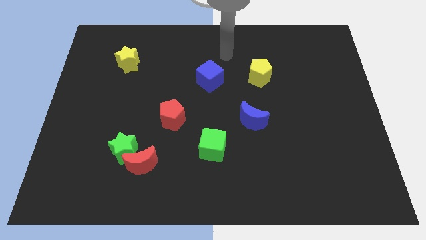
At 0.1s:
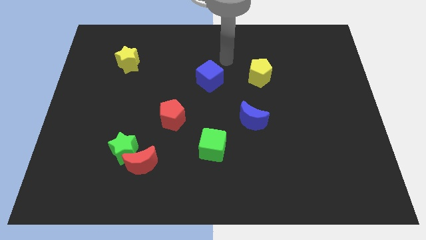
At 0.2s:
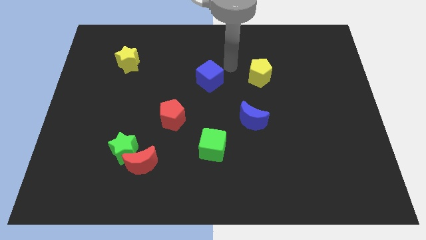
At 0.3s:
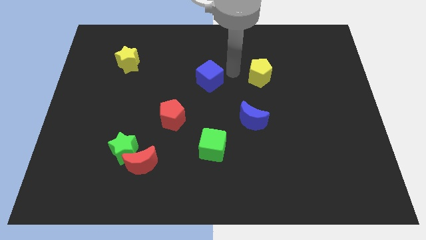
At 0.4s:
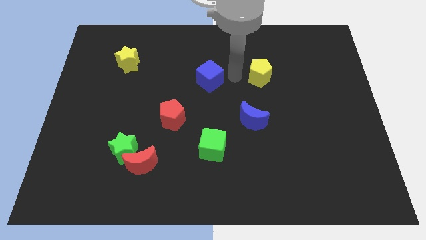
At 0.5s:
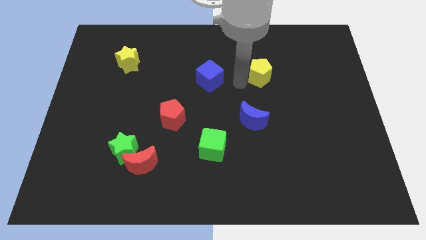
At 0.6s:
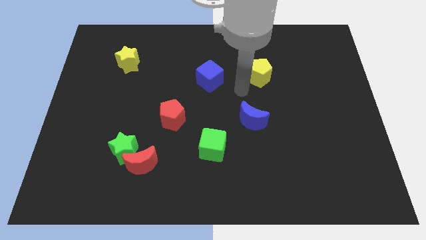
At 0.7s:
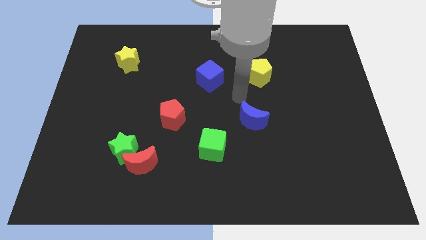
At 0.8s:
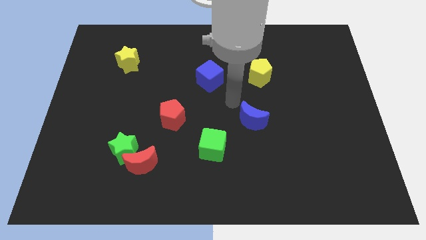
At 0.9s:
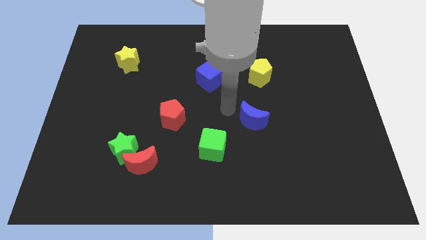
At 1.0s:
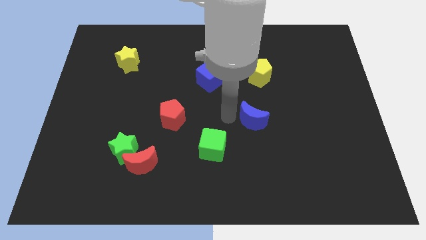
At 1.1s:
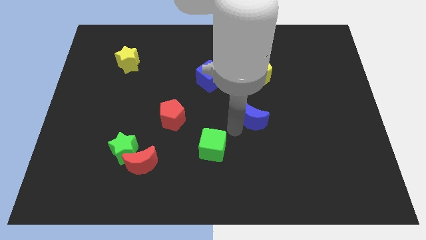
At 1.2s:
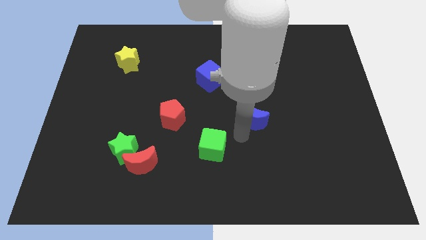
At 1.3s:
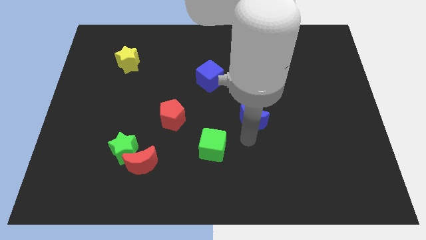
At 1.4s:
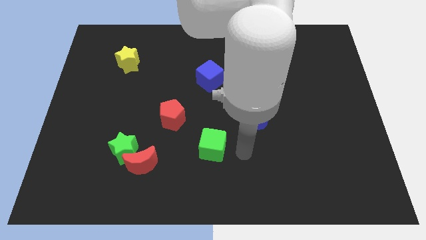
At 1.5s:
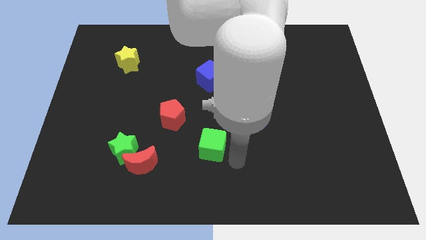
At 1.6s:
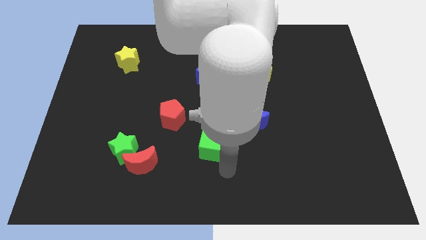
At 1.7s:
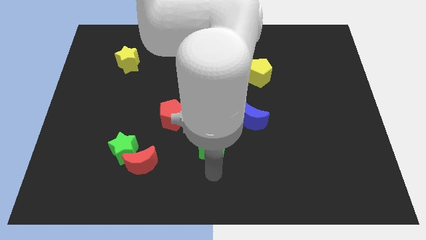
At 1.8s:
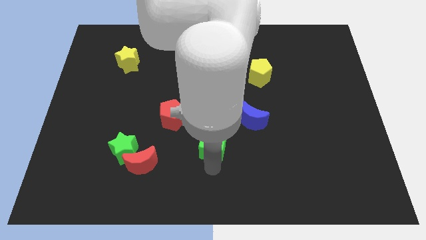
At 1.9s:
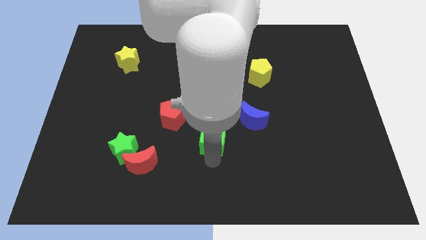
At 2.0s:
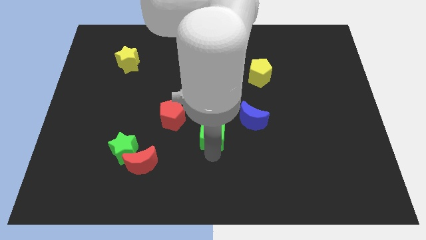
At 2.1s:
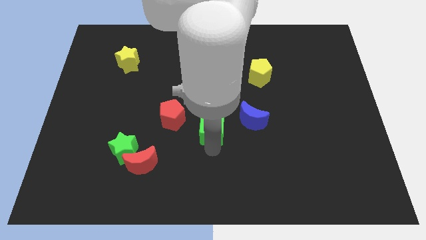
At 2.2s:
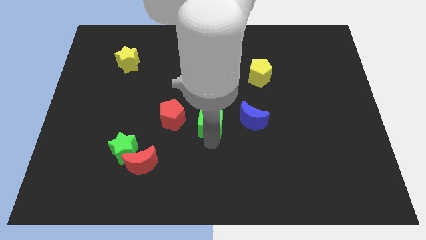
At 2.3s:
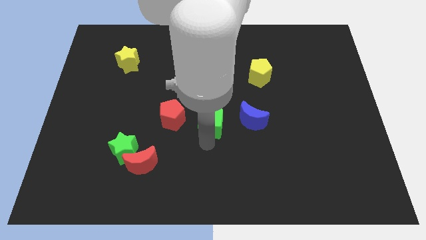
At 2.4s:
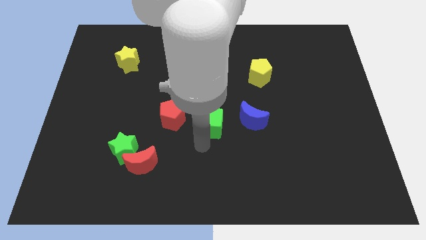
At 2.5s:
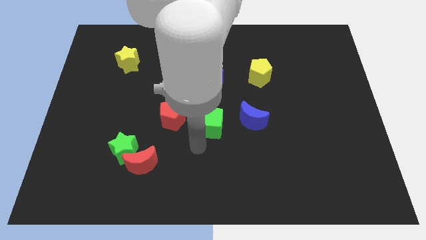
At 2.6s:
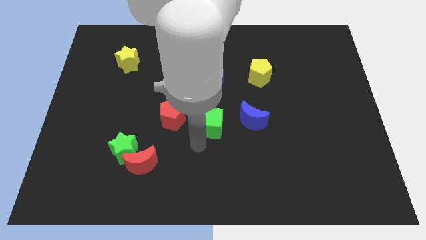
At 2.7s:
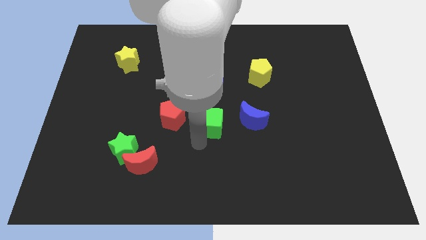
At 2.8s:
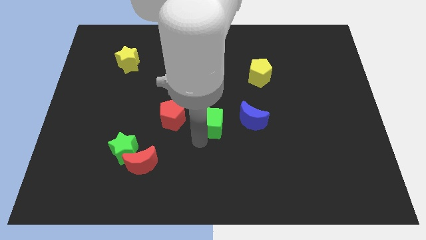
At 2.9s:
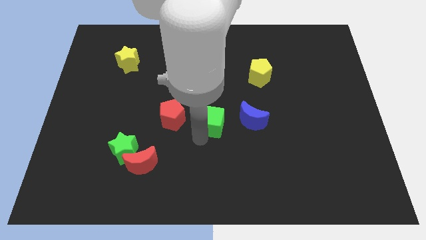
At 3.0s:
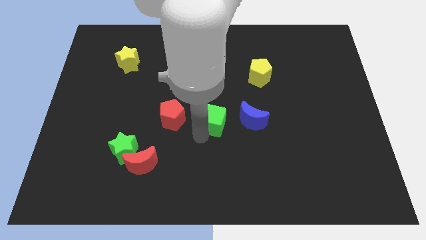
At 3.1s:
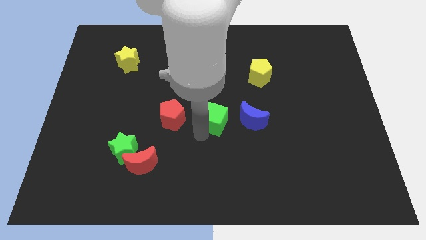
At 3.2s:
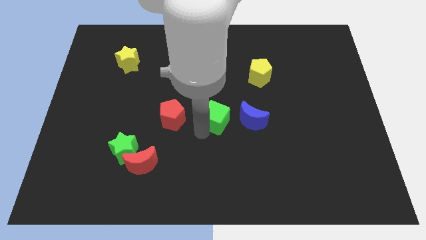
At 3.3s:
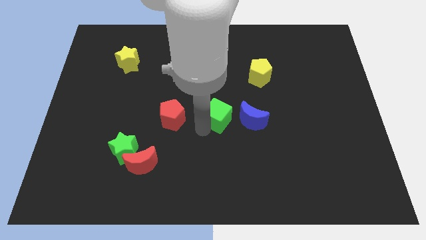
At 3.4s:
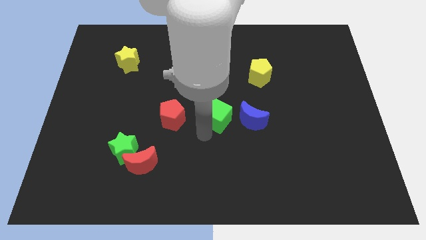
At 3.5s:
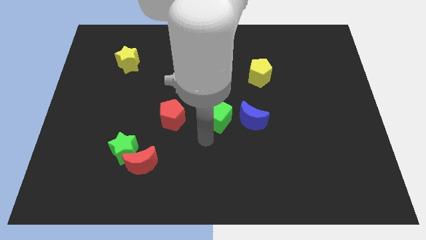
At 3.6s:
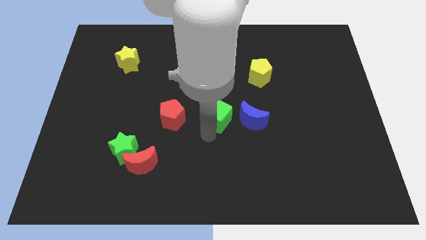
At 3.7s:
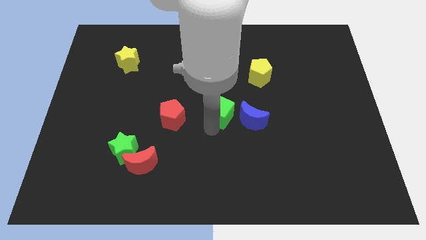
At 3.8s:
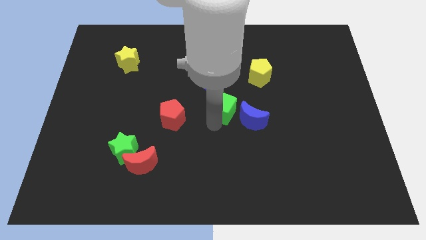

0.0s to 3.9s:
slightly push the green cube diagonally up and to the right

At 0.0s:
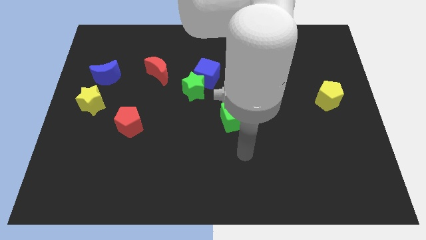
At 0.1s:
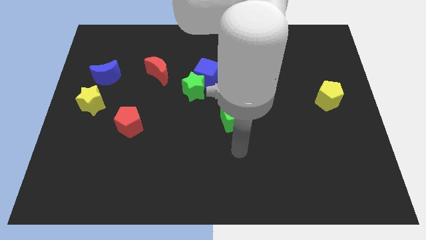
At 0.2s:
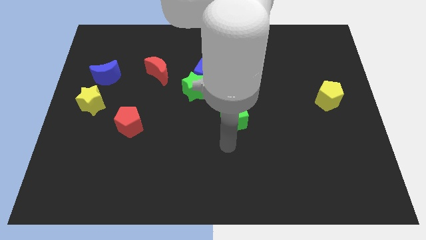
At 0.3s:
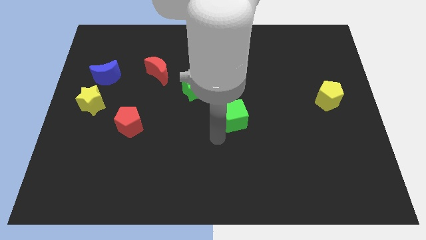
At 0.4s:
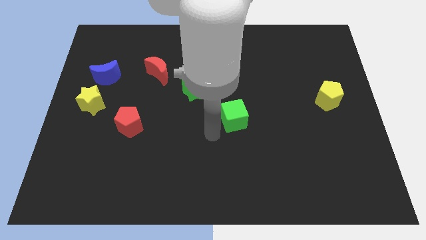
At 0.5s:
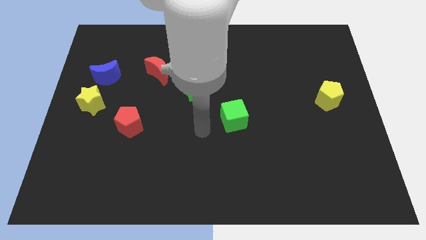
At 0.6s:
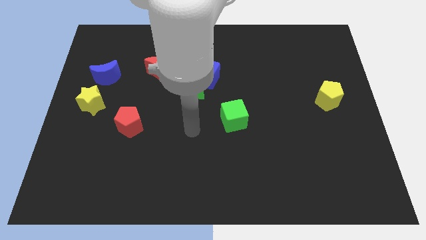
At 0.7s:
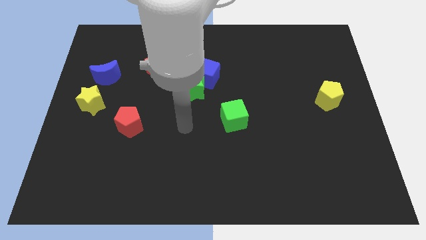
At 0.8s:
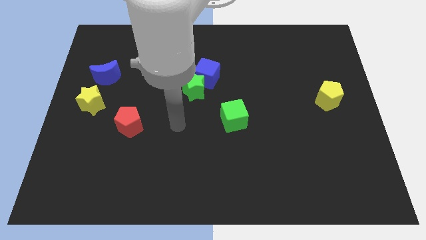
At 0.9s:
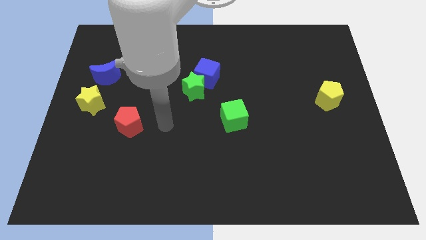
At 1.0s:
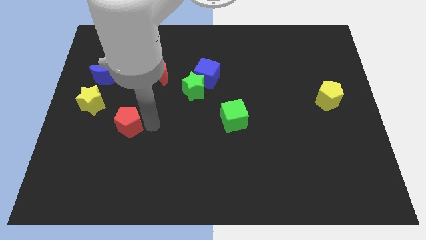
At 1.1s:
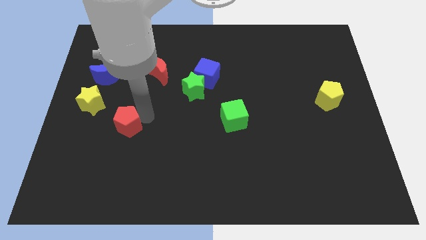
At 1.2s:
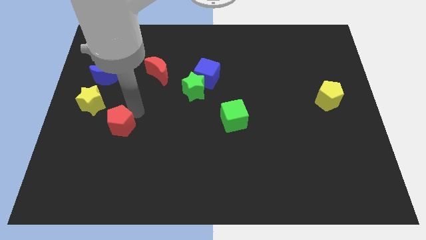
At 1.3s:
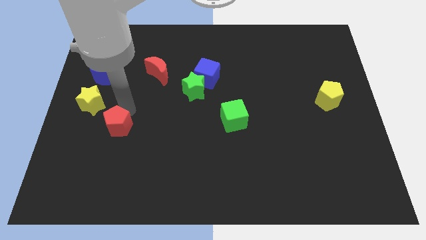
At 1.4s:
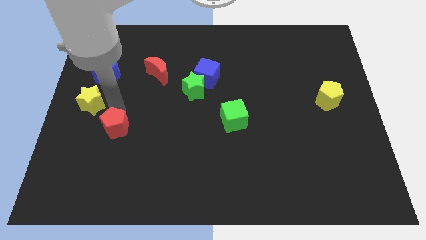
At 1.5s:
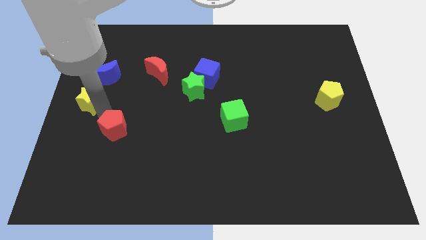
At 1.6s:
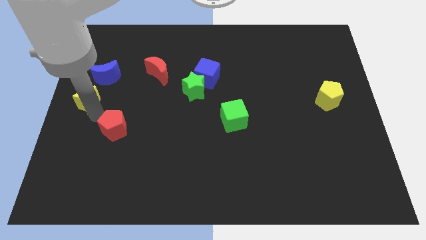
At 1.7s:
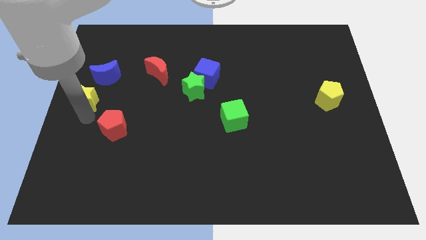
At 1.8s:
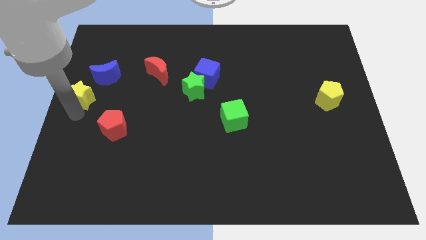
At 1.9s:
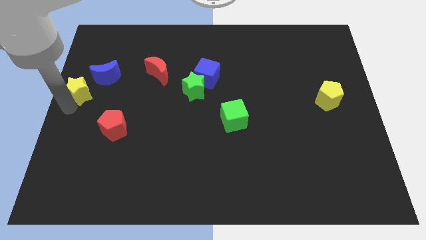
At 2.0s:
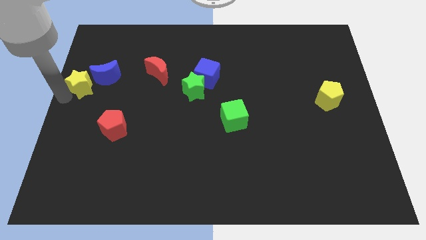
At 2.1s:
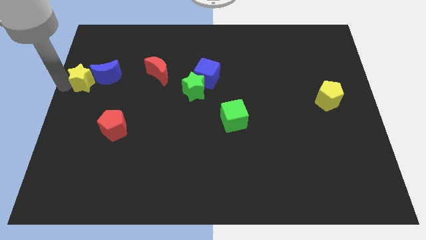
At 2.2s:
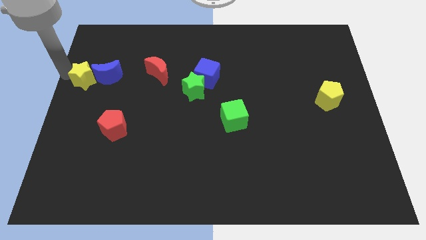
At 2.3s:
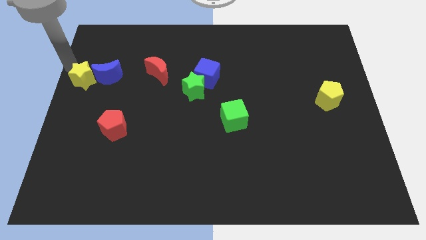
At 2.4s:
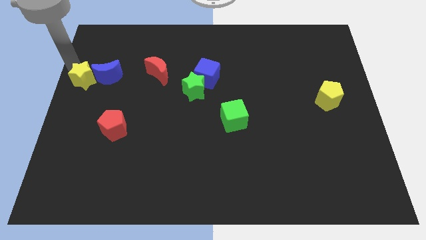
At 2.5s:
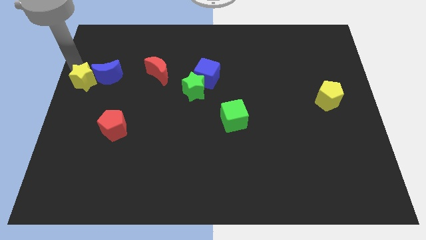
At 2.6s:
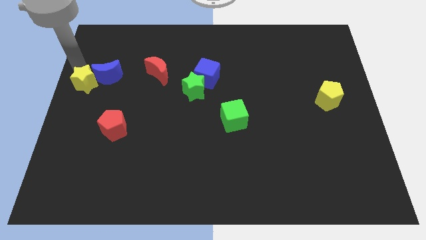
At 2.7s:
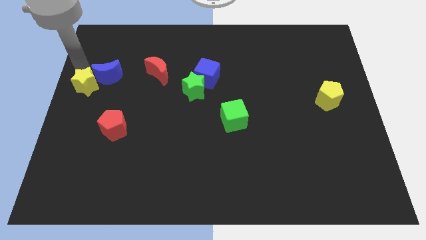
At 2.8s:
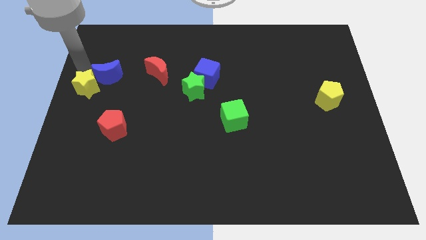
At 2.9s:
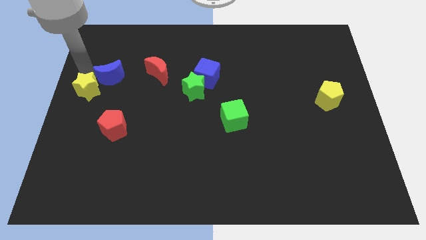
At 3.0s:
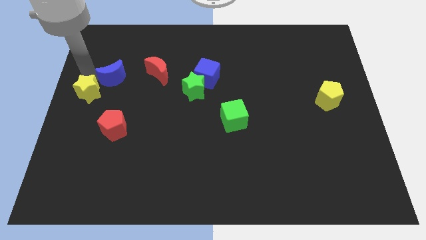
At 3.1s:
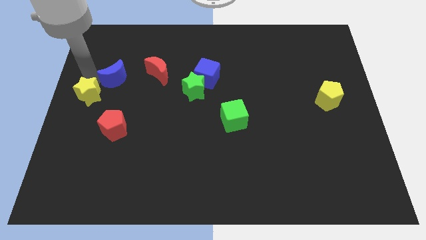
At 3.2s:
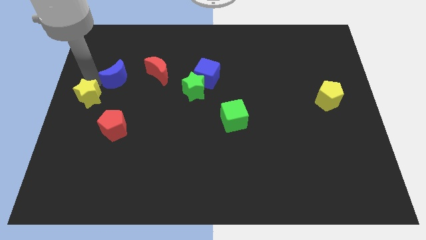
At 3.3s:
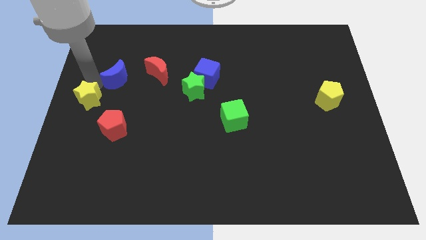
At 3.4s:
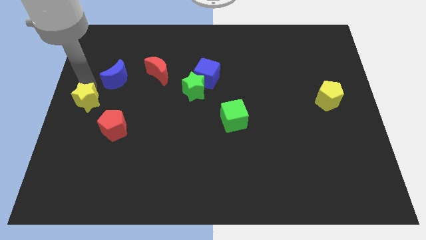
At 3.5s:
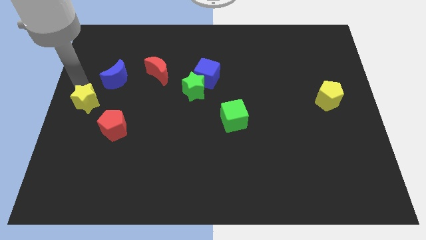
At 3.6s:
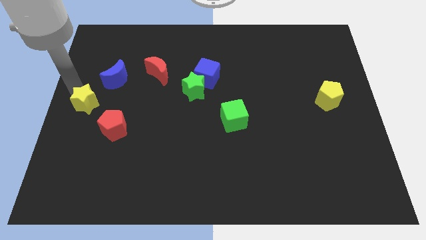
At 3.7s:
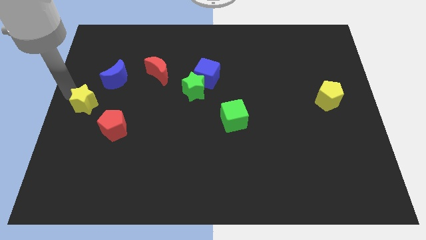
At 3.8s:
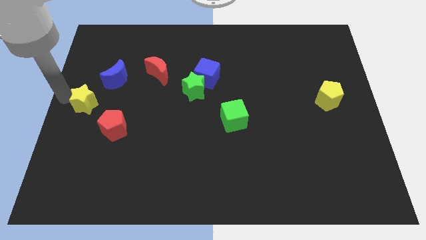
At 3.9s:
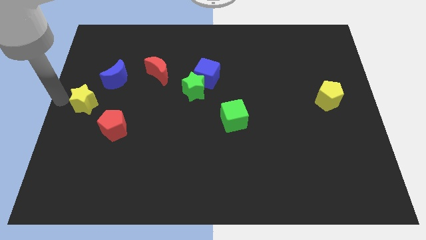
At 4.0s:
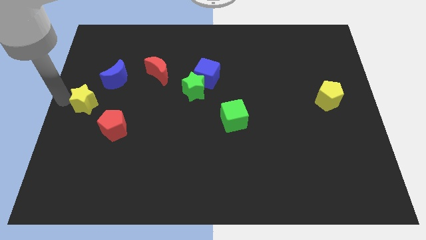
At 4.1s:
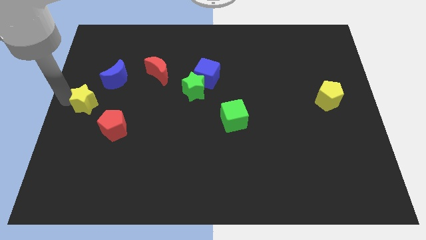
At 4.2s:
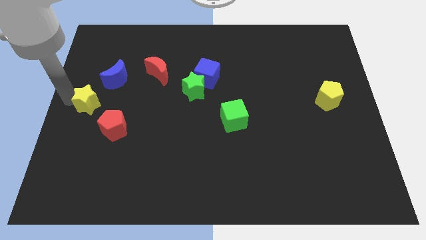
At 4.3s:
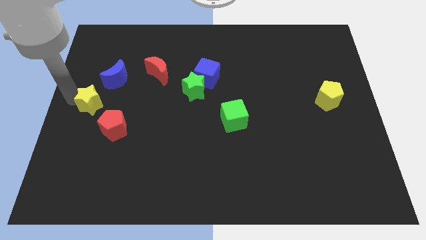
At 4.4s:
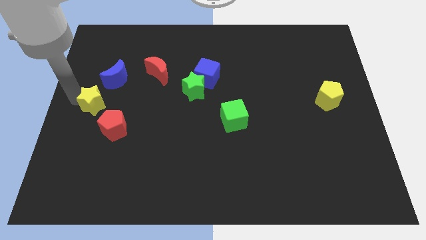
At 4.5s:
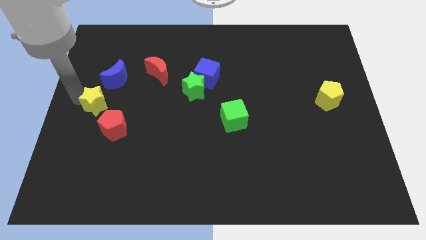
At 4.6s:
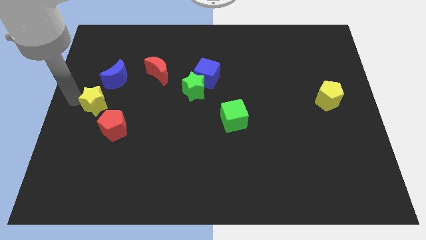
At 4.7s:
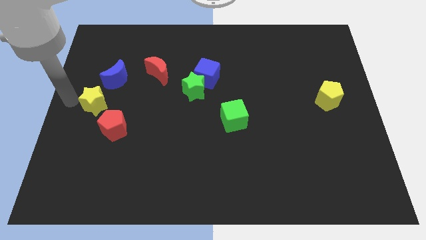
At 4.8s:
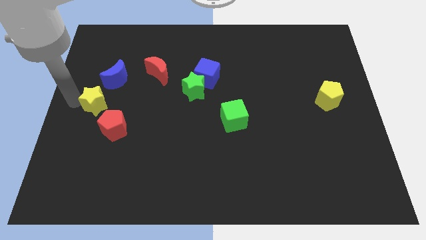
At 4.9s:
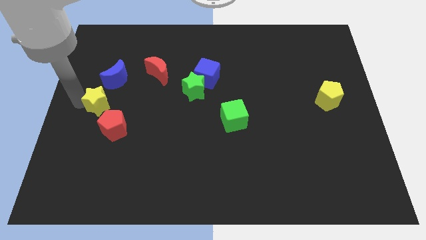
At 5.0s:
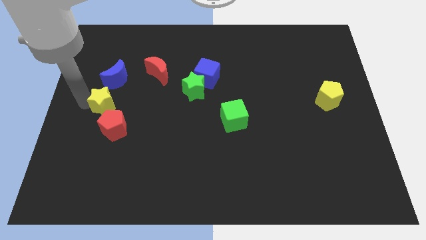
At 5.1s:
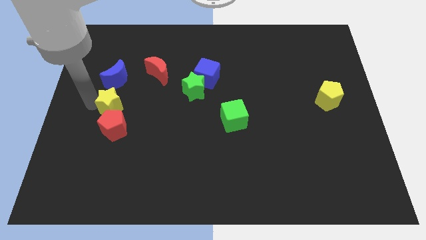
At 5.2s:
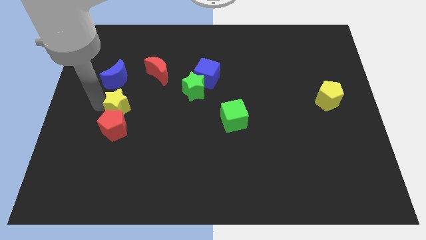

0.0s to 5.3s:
slide the yellow star somewhat right
